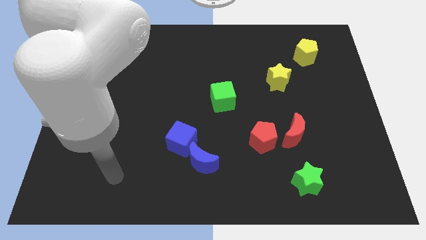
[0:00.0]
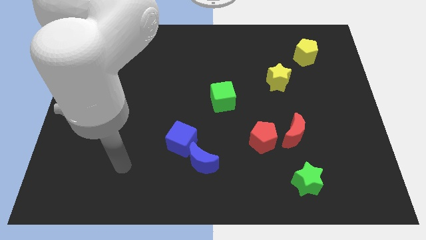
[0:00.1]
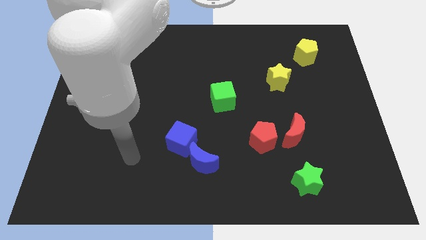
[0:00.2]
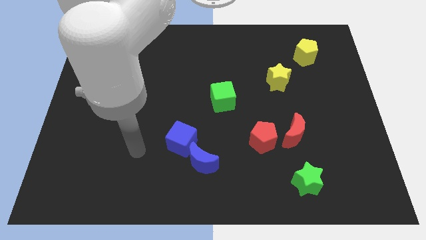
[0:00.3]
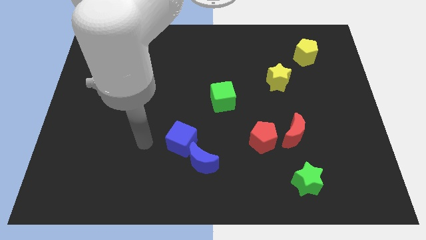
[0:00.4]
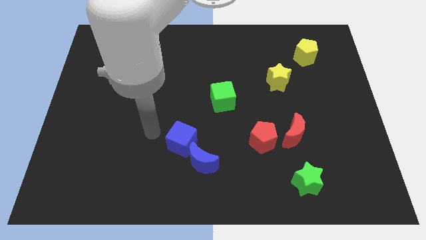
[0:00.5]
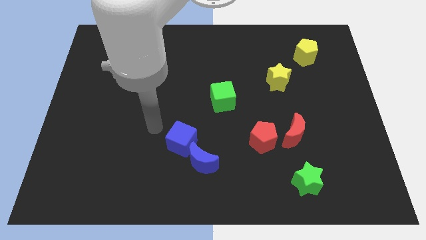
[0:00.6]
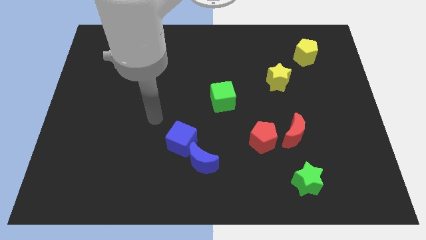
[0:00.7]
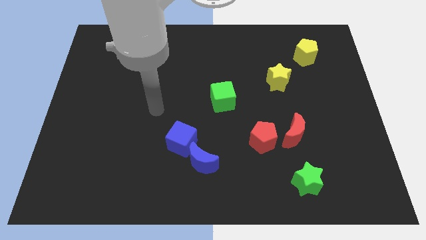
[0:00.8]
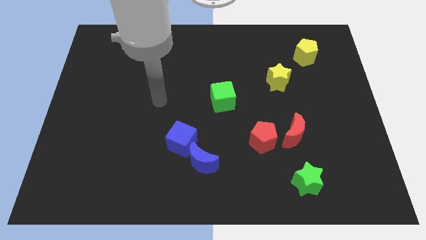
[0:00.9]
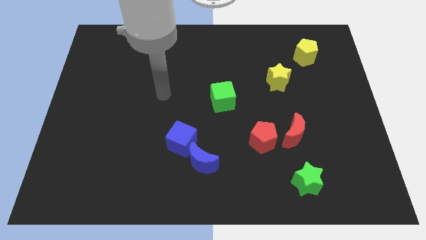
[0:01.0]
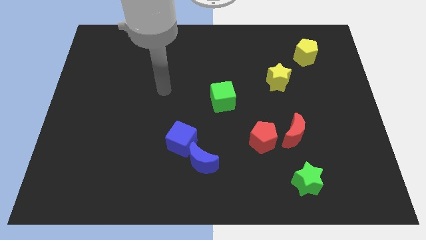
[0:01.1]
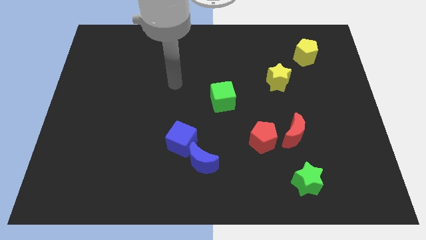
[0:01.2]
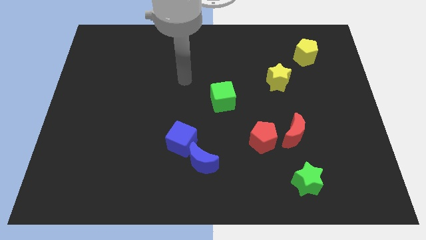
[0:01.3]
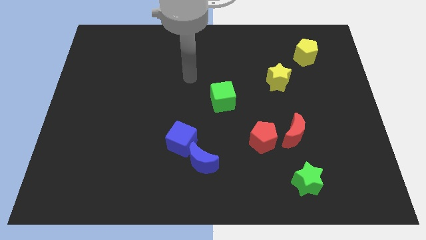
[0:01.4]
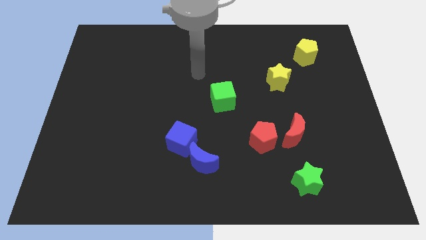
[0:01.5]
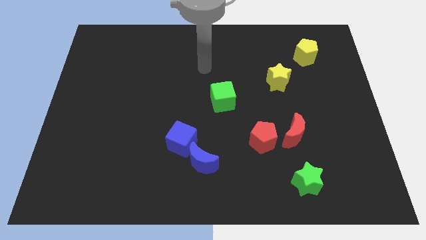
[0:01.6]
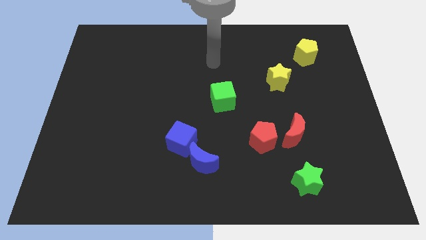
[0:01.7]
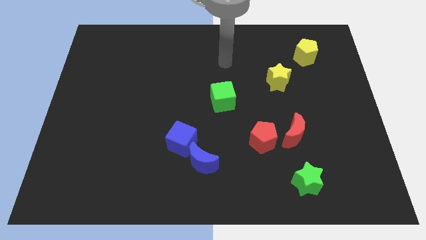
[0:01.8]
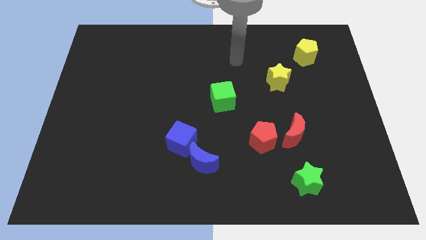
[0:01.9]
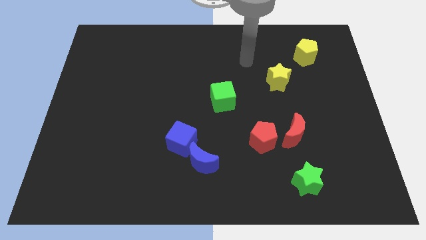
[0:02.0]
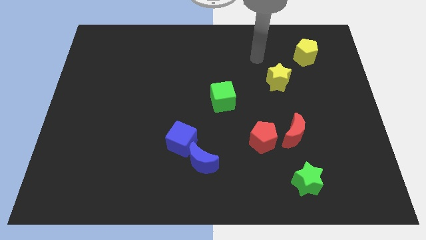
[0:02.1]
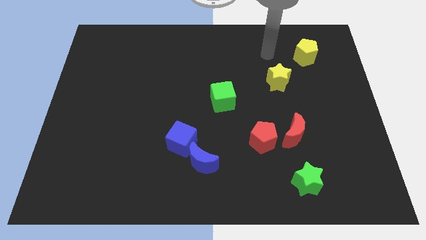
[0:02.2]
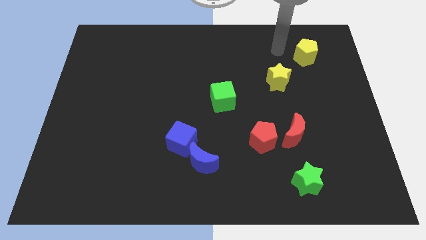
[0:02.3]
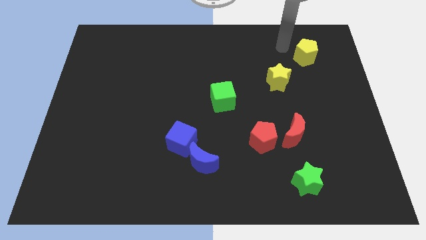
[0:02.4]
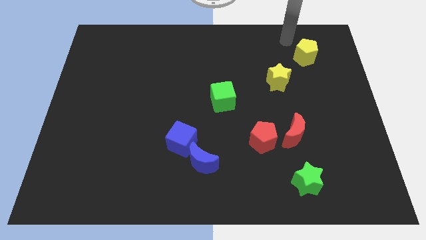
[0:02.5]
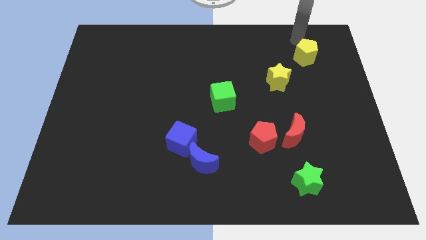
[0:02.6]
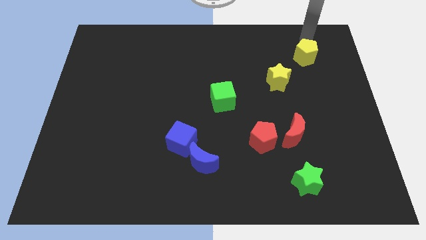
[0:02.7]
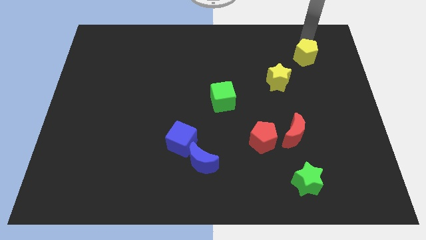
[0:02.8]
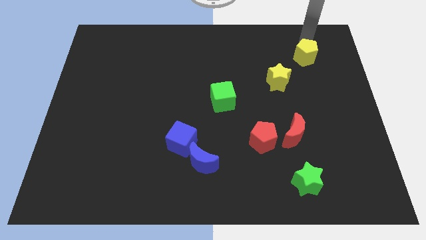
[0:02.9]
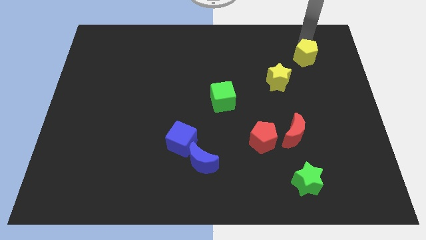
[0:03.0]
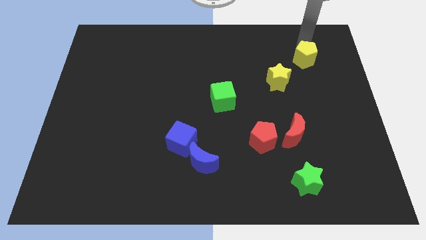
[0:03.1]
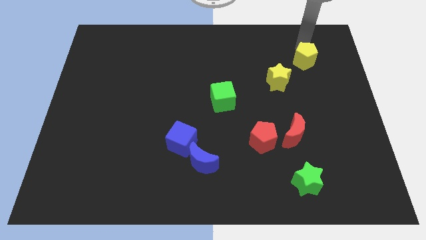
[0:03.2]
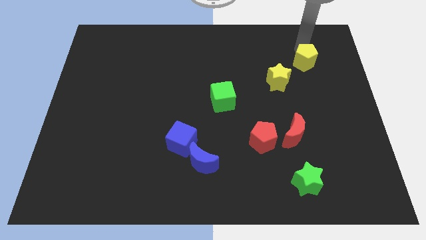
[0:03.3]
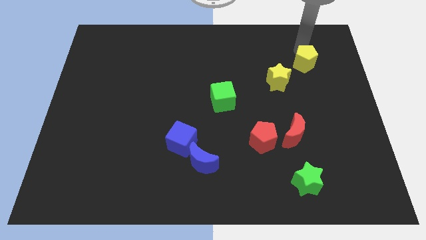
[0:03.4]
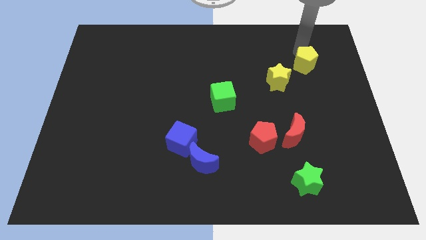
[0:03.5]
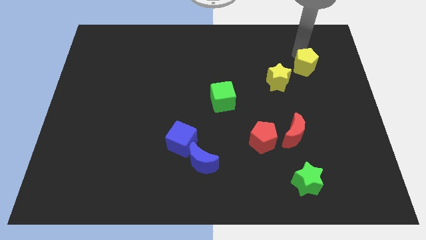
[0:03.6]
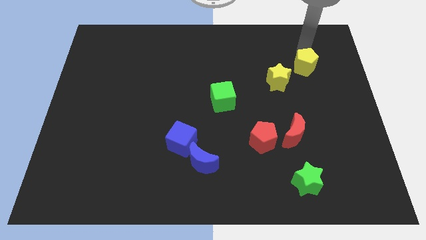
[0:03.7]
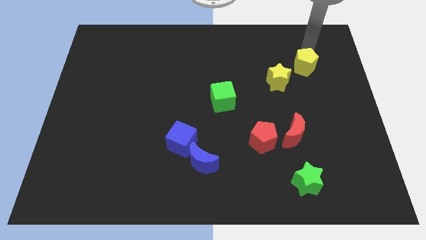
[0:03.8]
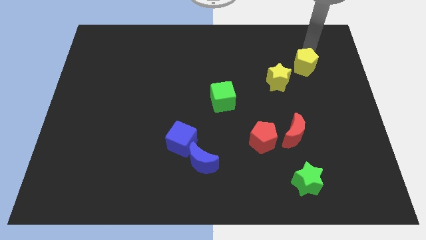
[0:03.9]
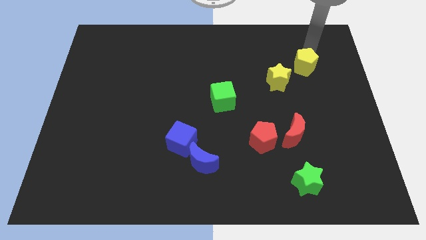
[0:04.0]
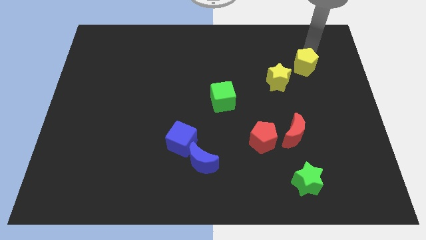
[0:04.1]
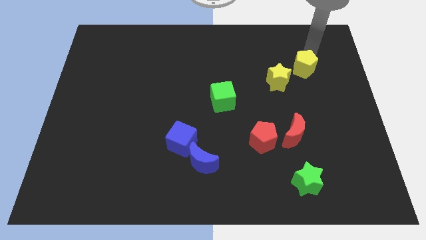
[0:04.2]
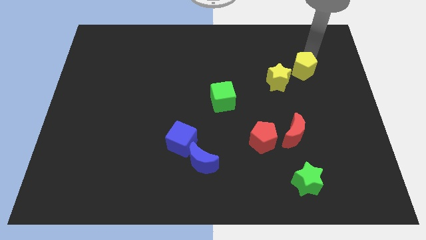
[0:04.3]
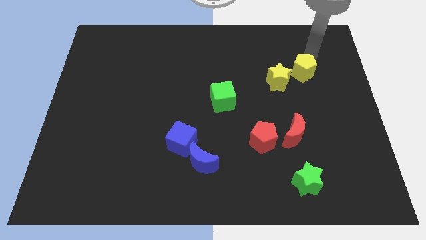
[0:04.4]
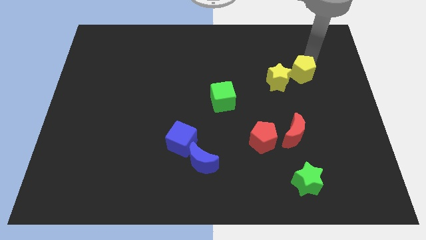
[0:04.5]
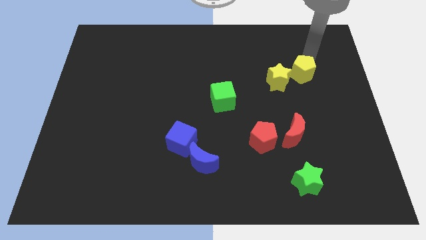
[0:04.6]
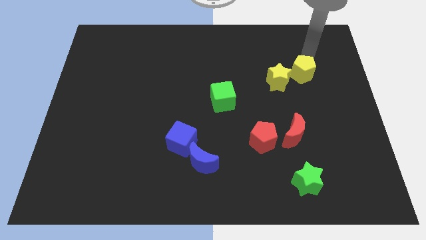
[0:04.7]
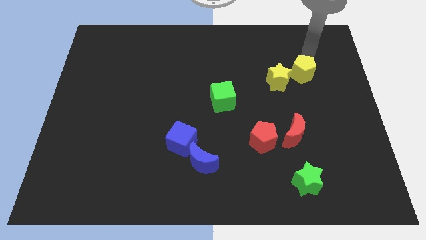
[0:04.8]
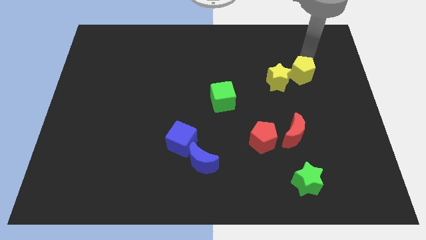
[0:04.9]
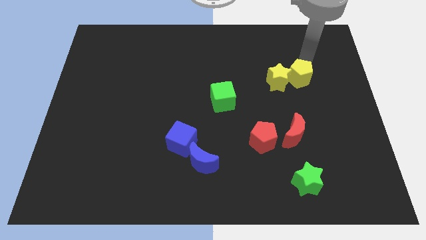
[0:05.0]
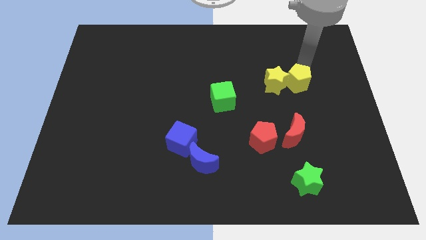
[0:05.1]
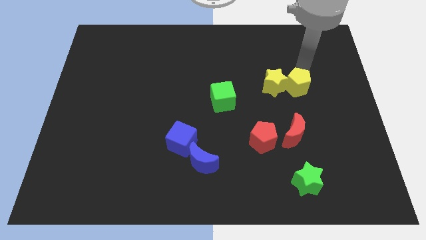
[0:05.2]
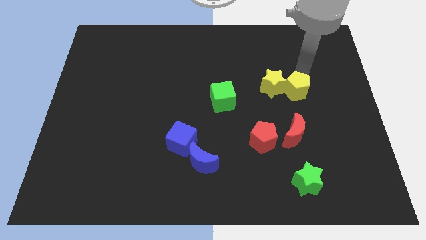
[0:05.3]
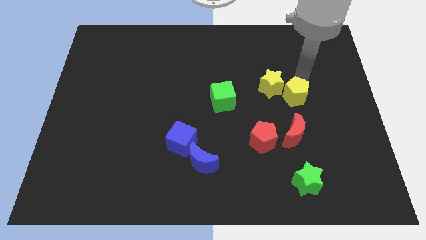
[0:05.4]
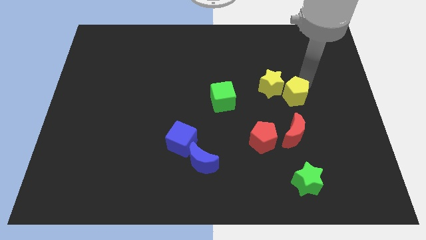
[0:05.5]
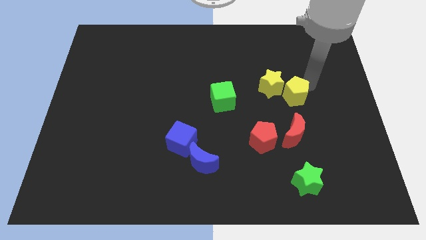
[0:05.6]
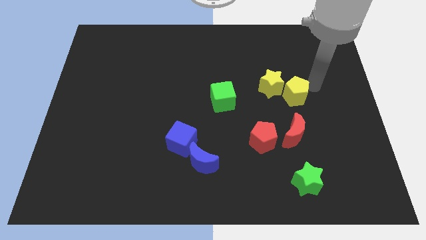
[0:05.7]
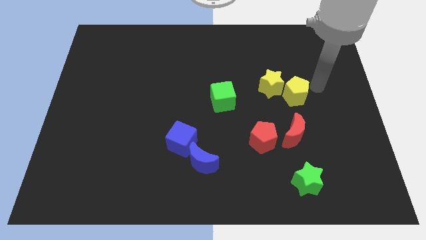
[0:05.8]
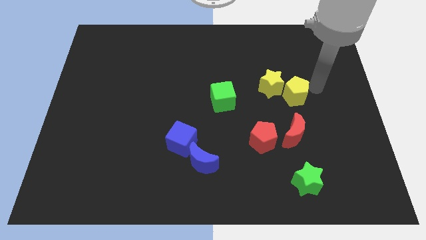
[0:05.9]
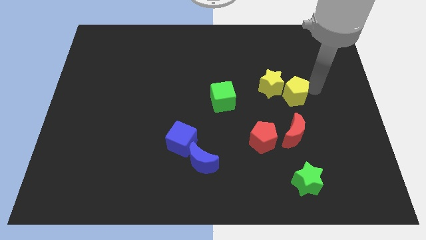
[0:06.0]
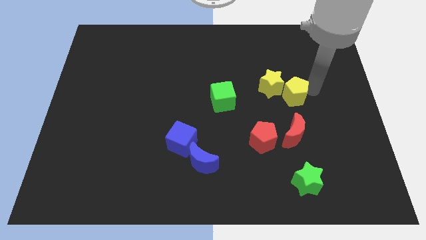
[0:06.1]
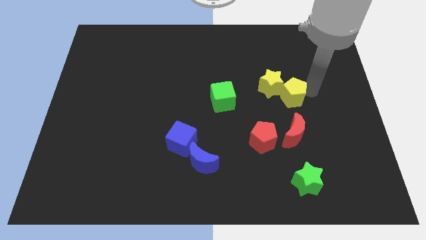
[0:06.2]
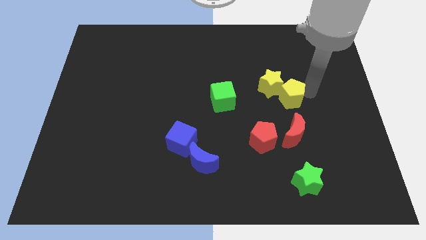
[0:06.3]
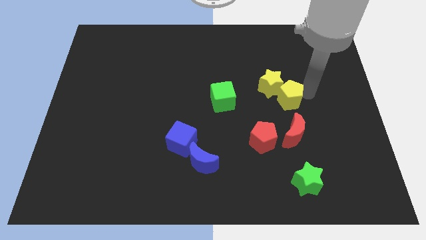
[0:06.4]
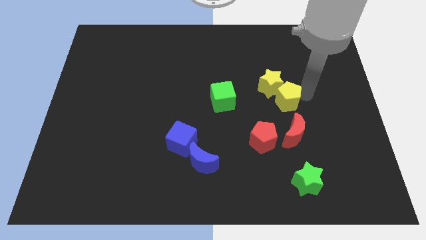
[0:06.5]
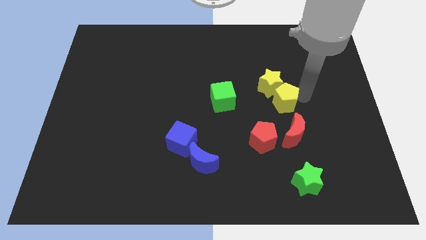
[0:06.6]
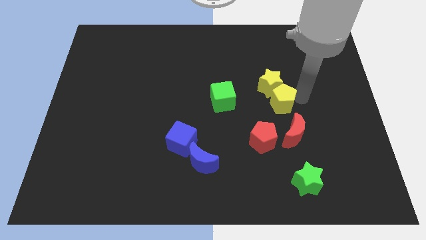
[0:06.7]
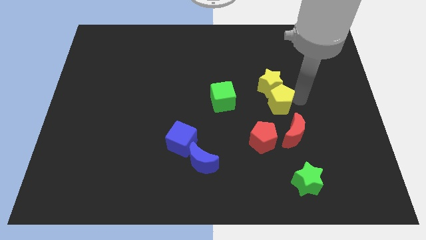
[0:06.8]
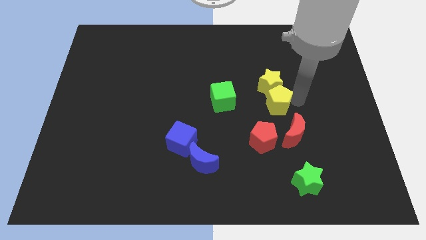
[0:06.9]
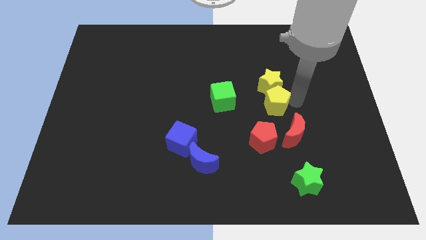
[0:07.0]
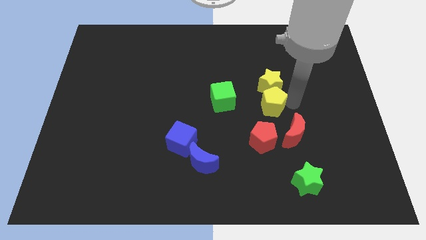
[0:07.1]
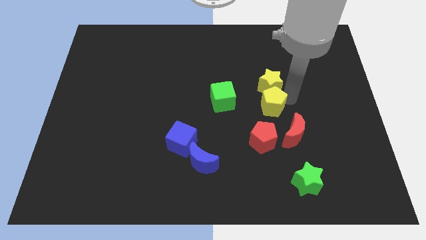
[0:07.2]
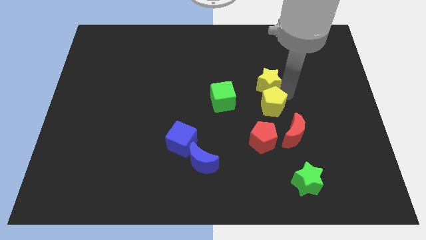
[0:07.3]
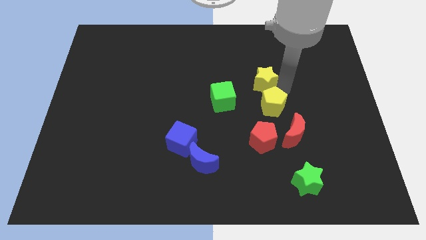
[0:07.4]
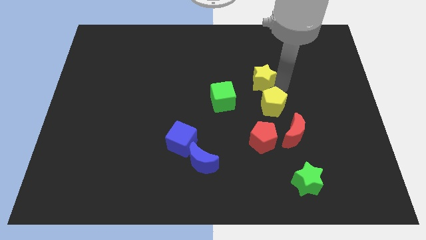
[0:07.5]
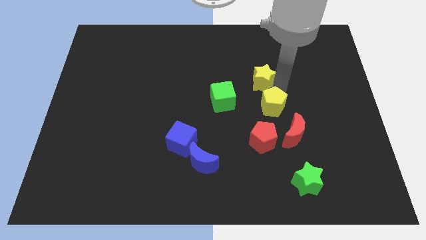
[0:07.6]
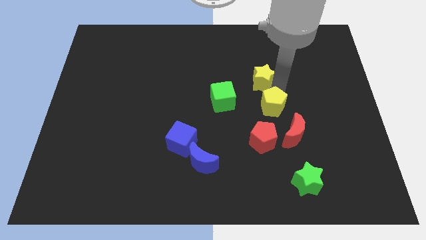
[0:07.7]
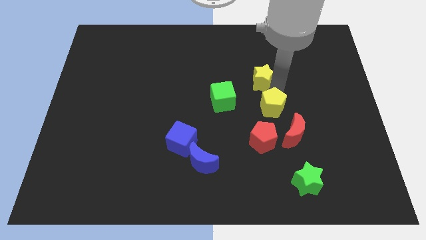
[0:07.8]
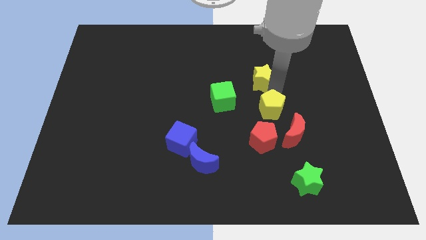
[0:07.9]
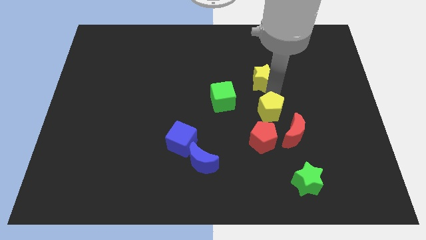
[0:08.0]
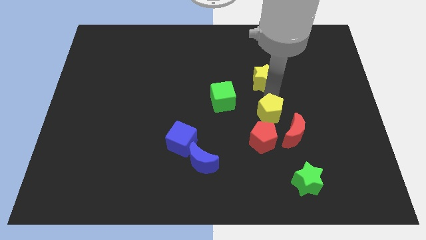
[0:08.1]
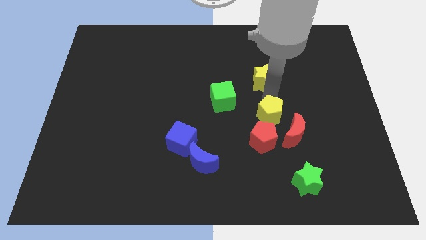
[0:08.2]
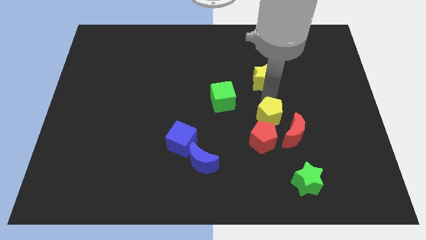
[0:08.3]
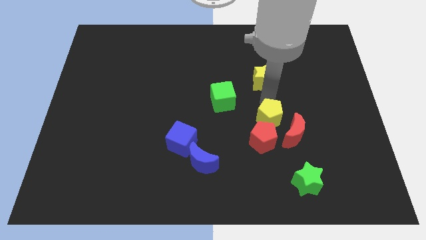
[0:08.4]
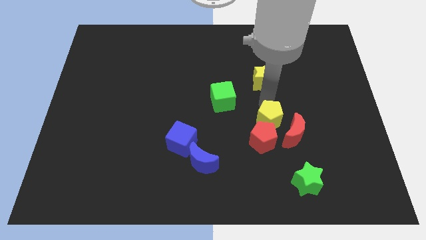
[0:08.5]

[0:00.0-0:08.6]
move the yellow pentagon next to the red pentagon
